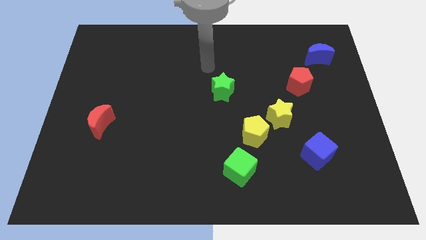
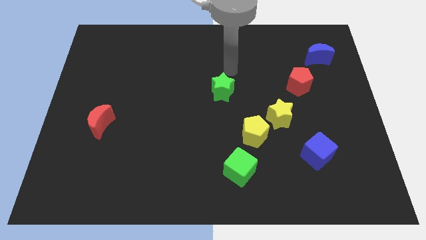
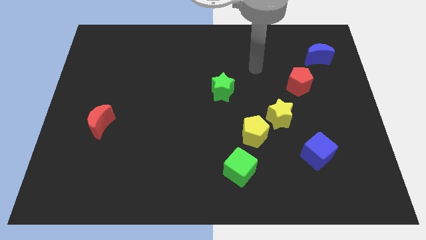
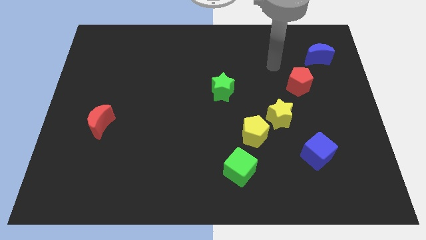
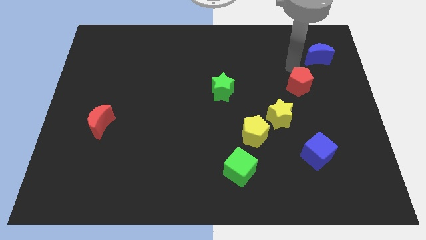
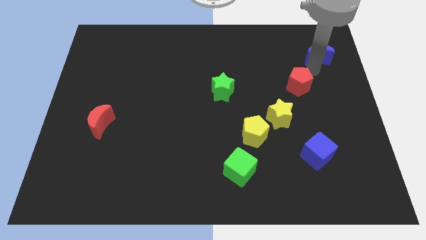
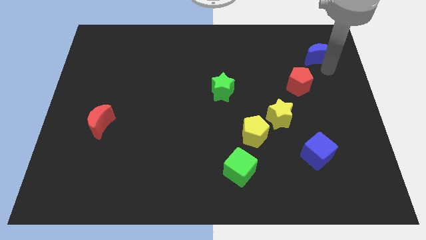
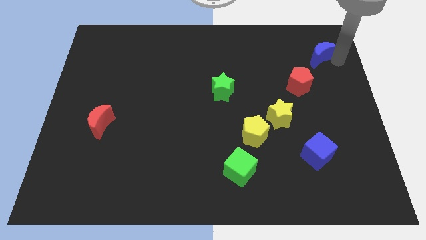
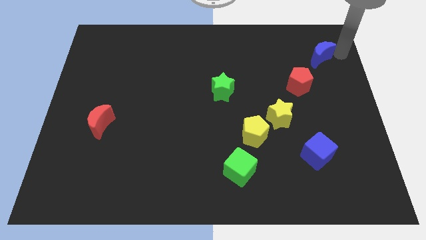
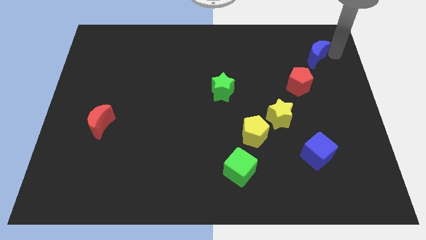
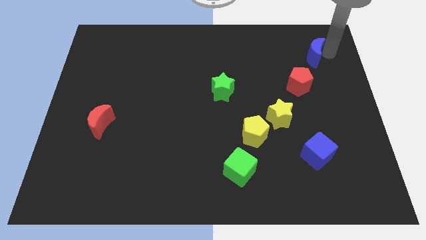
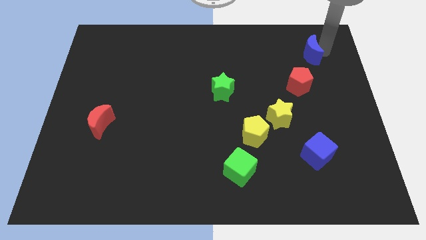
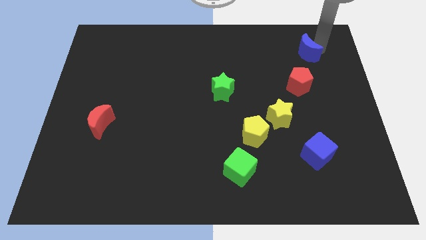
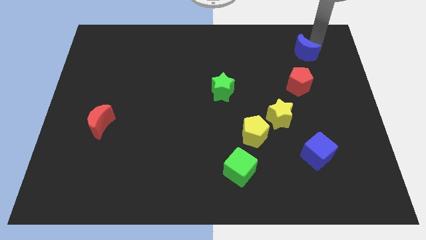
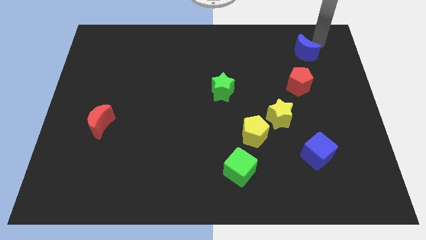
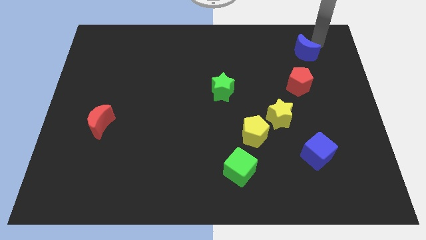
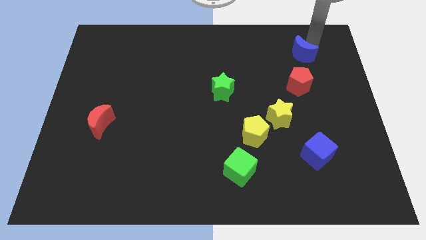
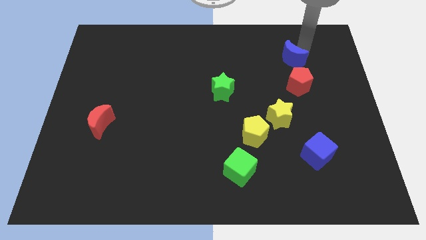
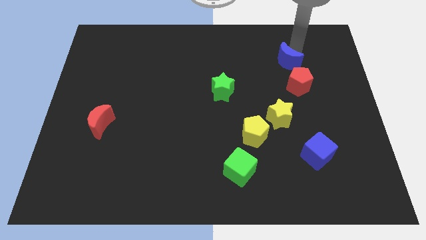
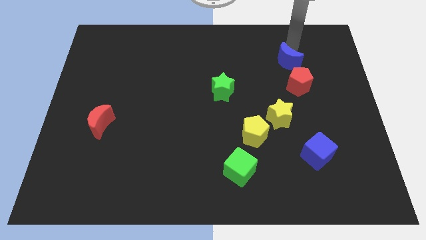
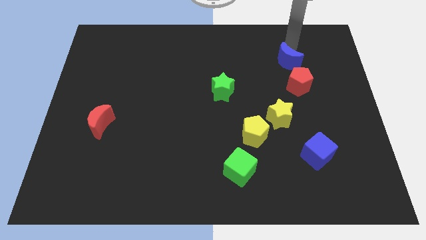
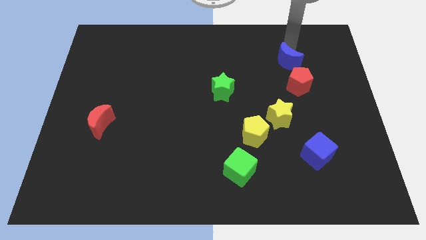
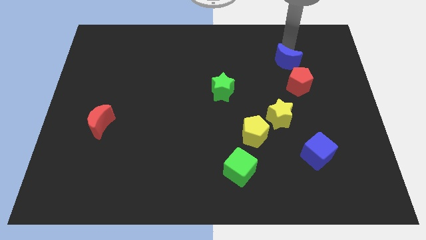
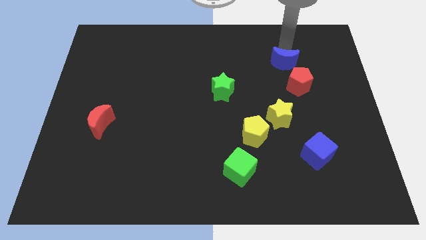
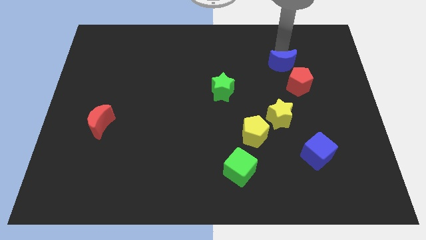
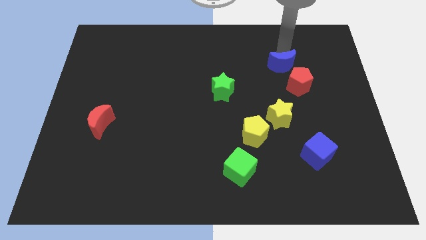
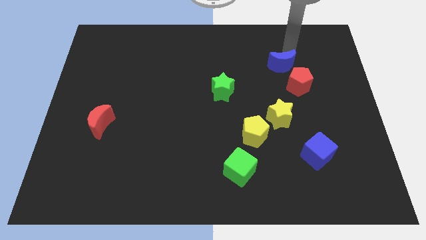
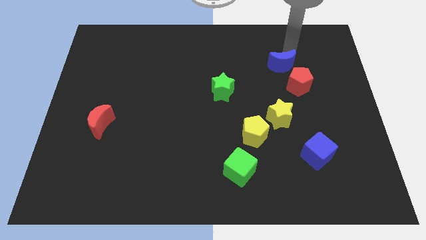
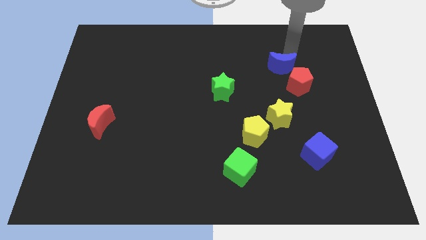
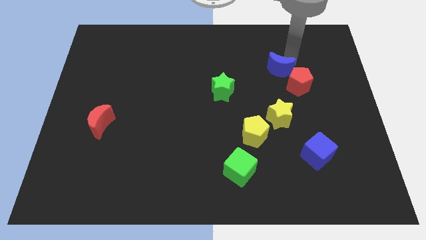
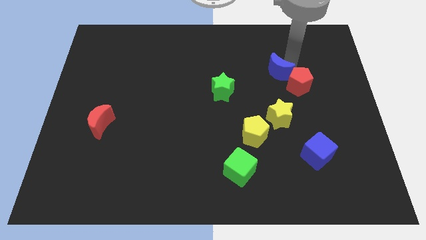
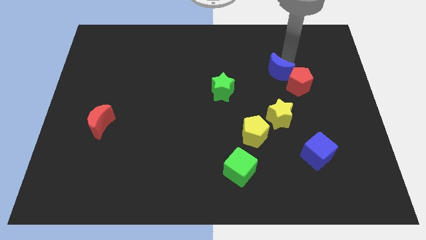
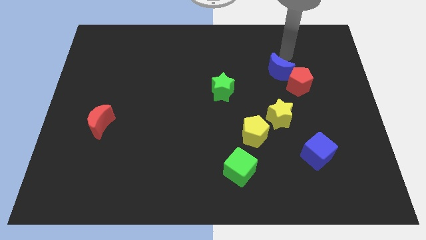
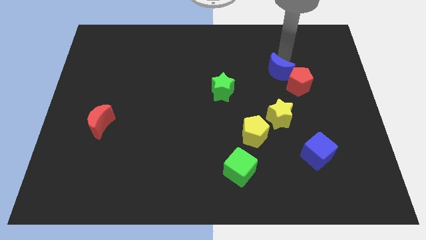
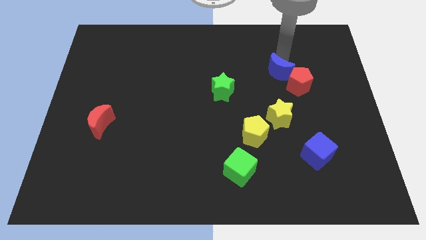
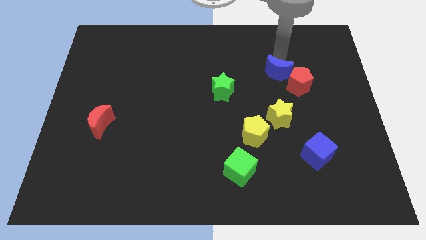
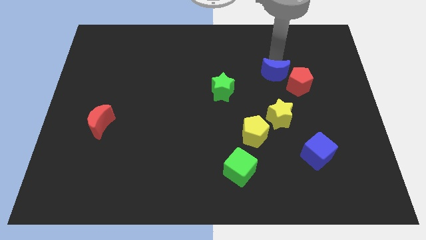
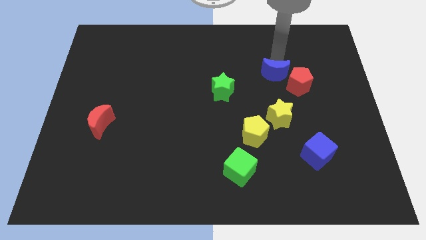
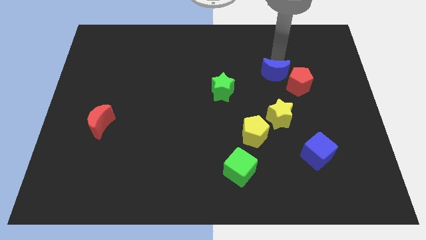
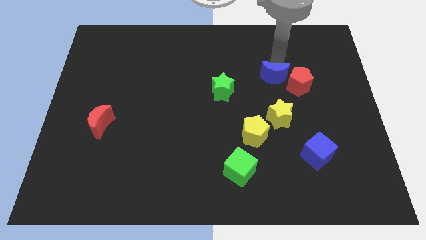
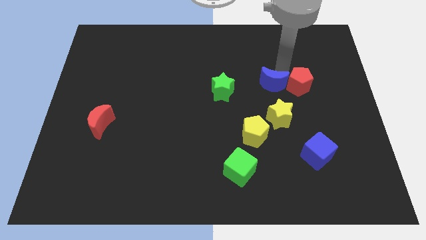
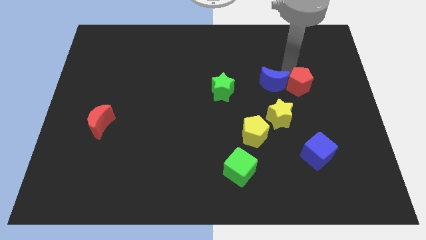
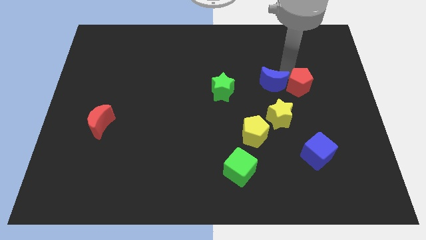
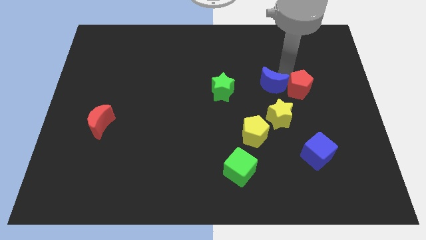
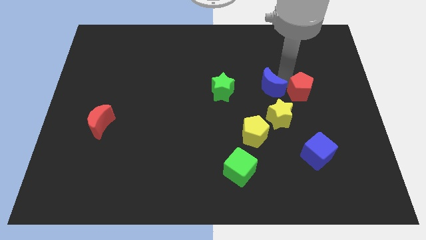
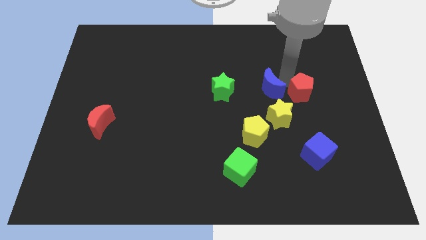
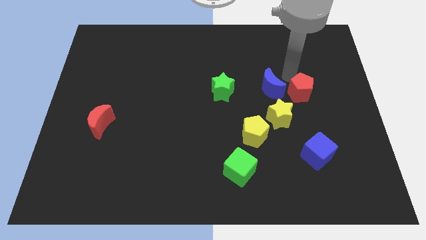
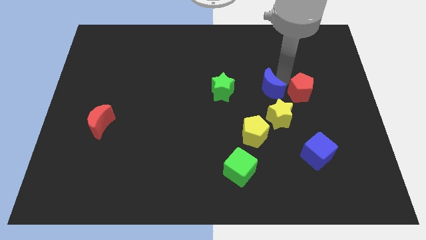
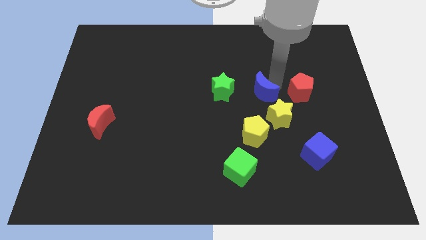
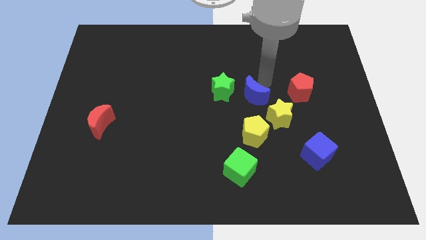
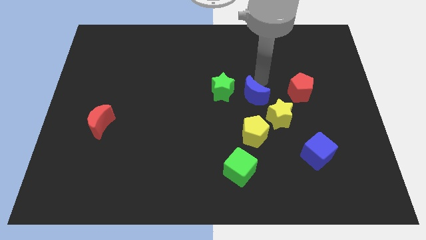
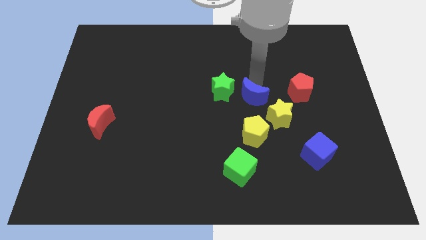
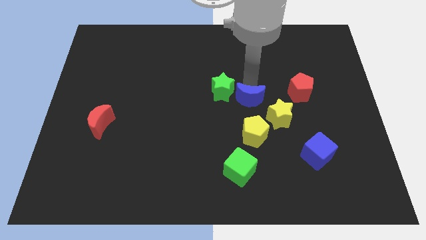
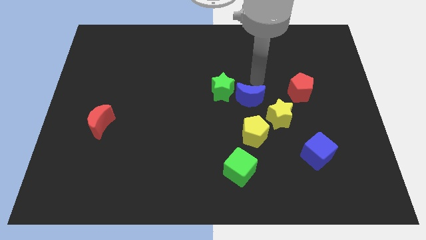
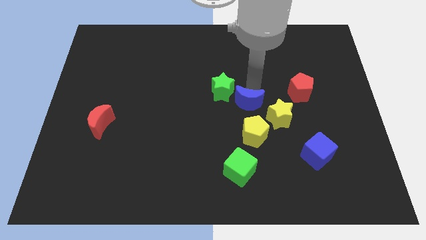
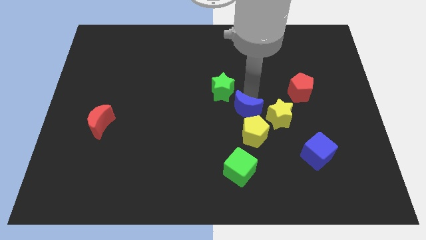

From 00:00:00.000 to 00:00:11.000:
slide the blue moon to the top side of the green cube

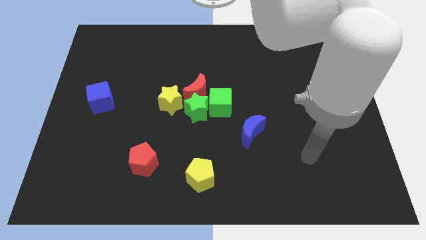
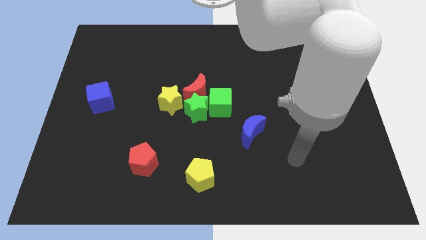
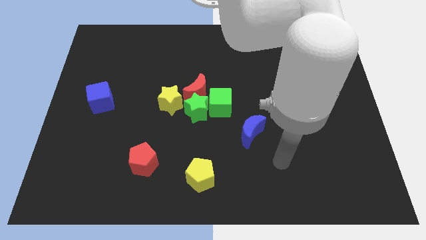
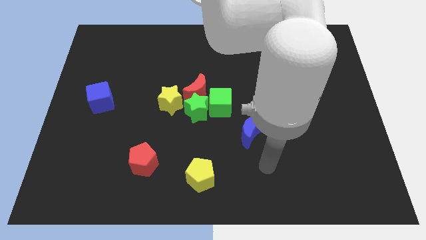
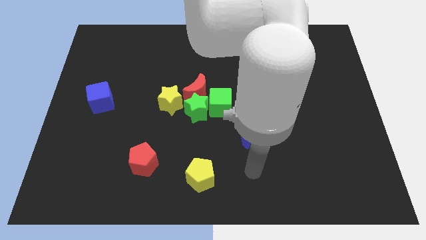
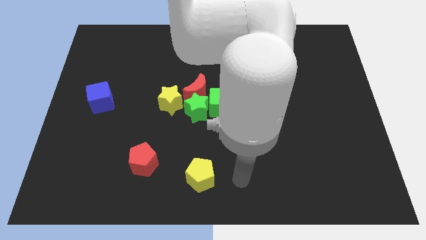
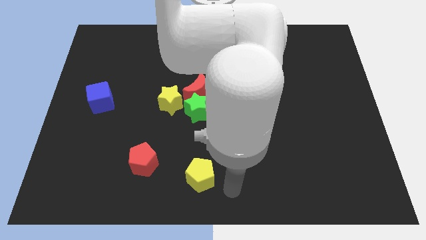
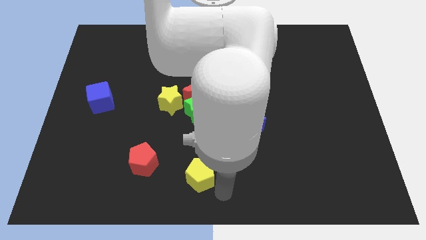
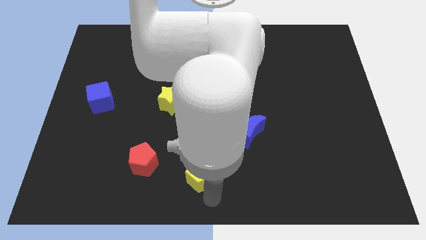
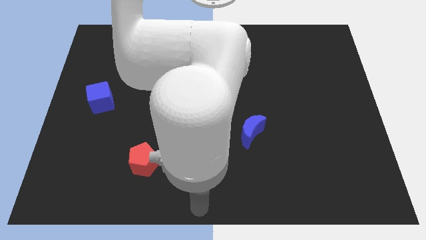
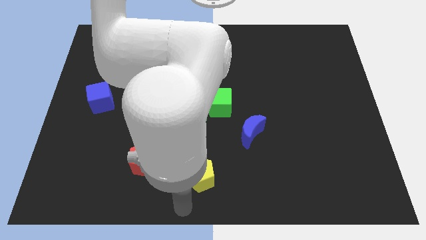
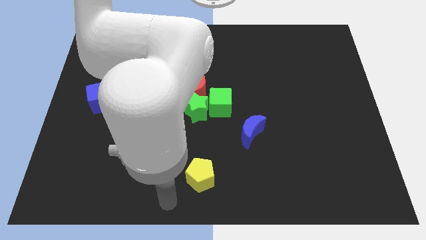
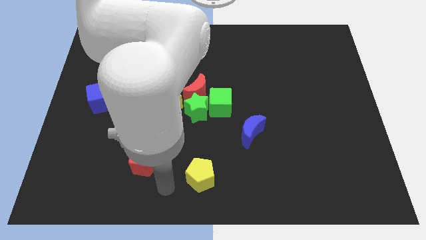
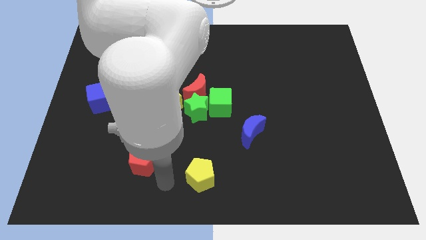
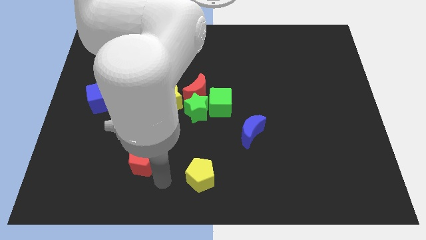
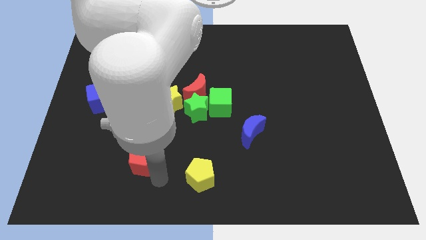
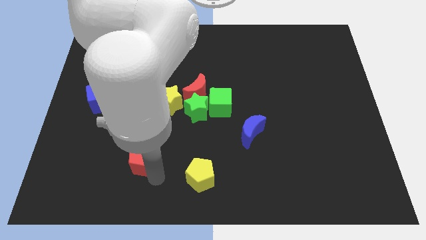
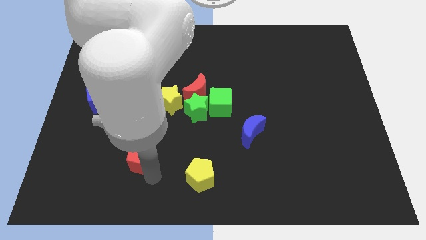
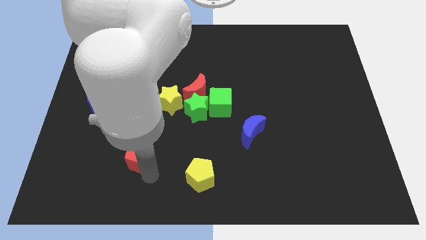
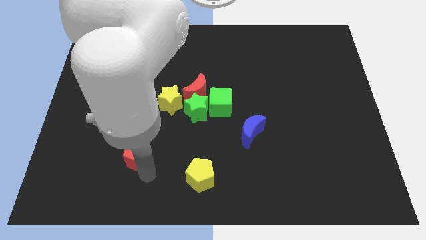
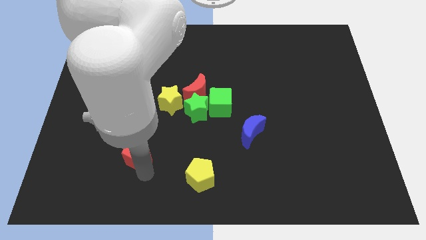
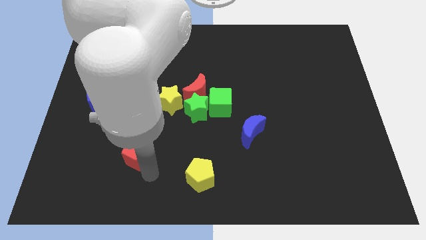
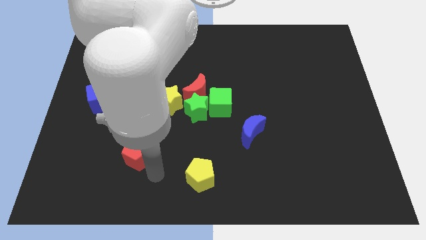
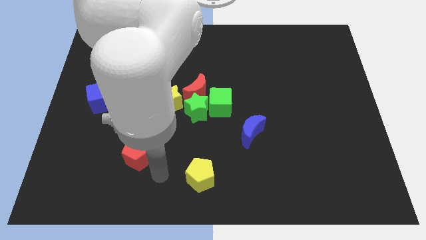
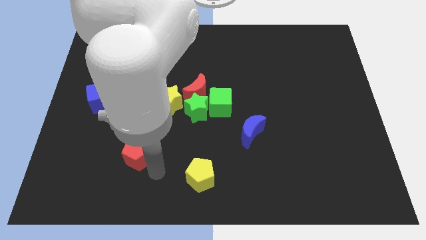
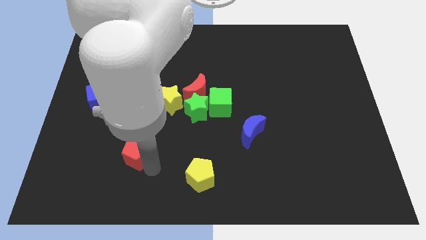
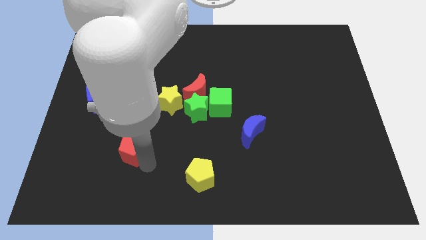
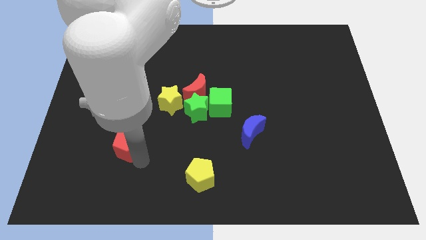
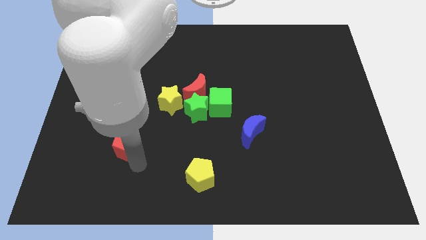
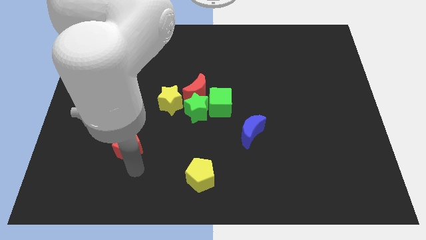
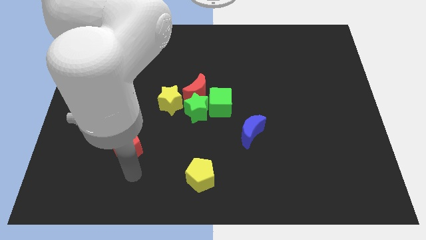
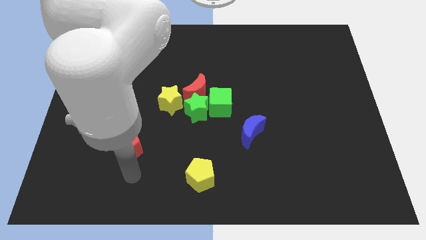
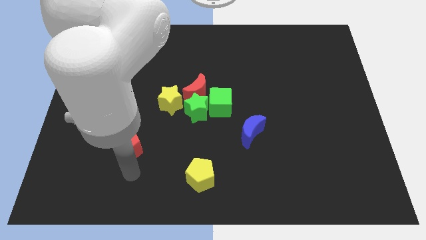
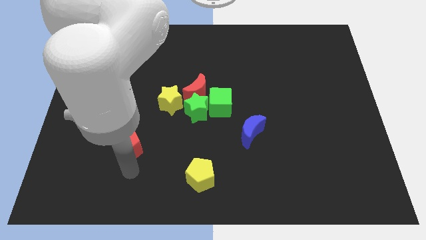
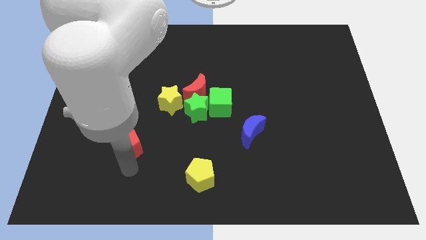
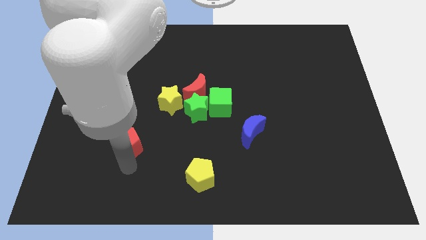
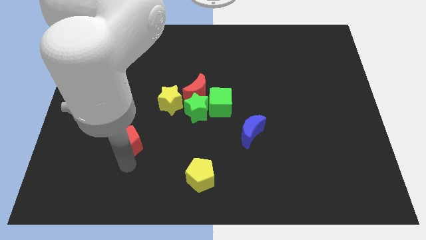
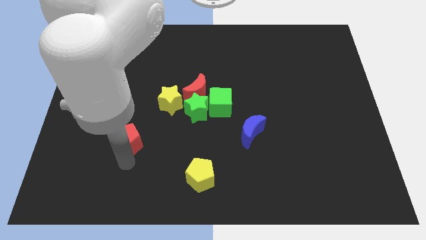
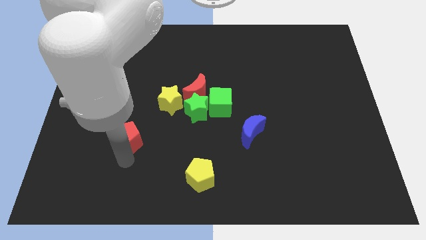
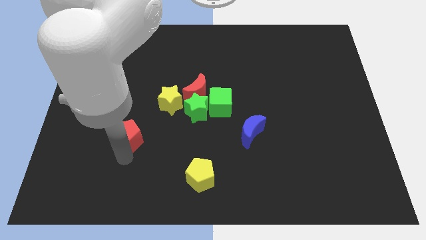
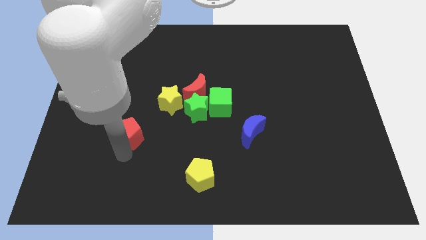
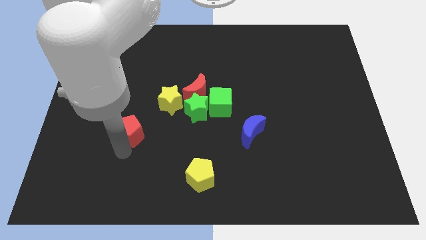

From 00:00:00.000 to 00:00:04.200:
slide the red pentagon diagonally down and to the right of the blue cube
